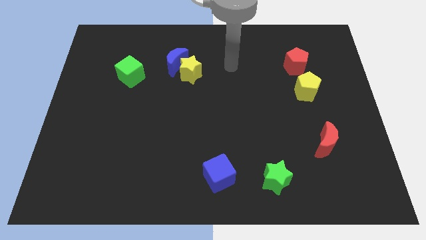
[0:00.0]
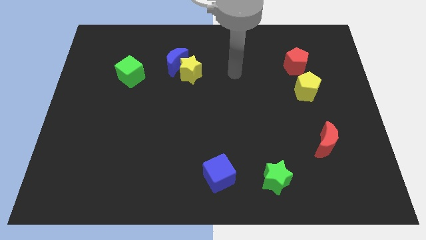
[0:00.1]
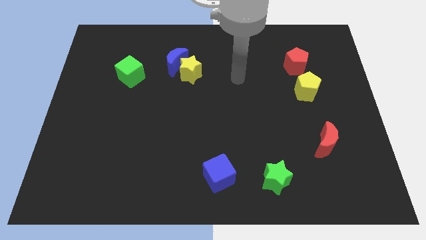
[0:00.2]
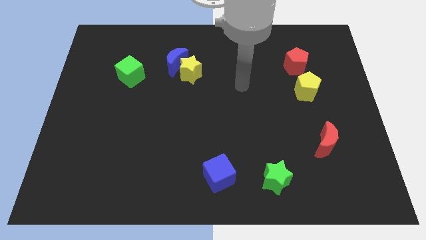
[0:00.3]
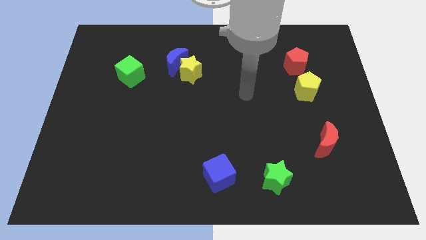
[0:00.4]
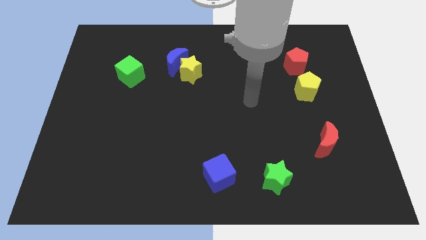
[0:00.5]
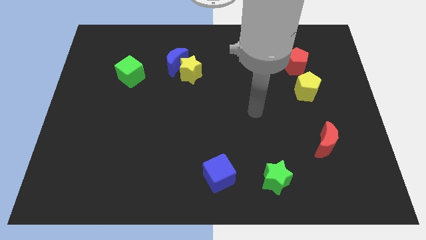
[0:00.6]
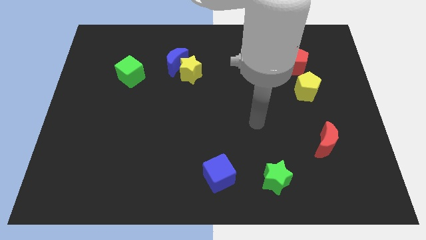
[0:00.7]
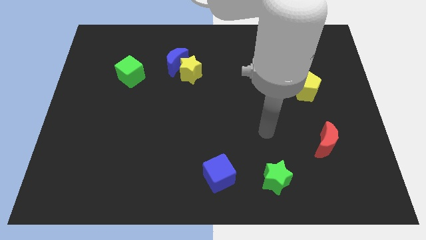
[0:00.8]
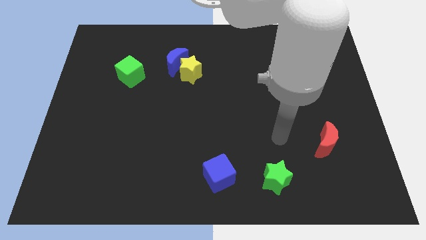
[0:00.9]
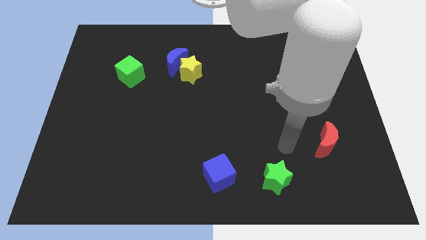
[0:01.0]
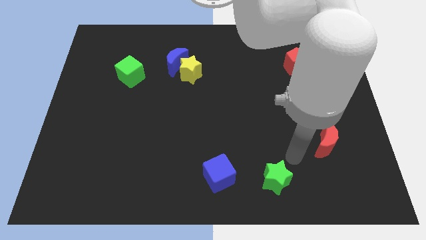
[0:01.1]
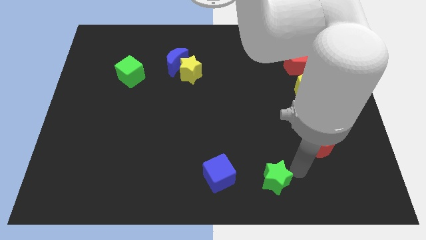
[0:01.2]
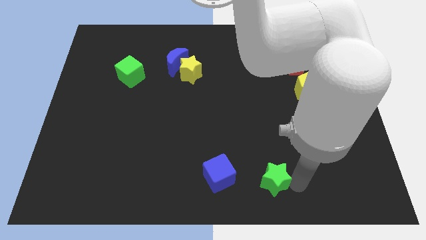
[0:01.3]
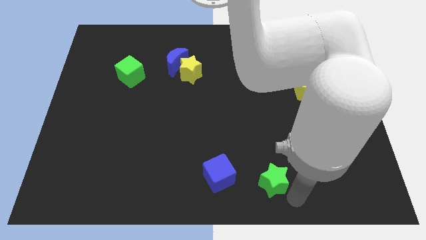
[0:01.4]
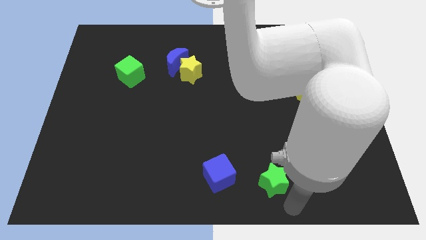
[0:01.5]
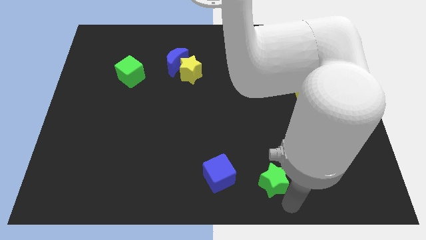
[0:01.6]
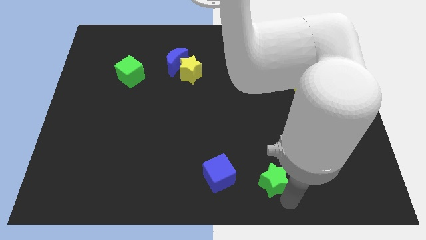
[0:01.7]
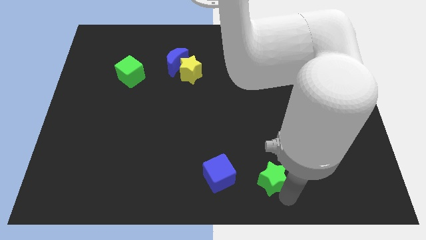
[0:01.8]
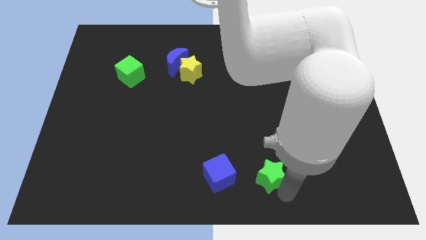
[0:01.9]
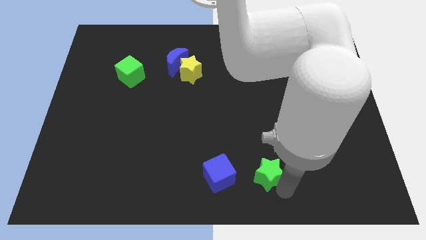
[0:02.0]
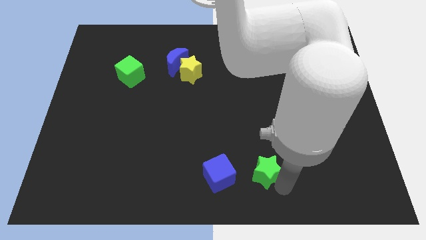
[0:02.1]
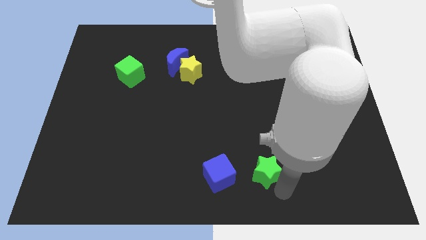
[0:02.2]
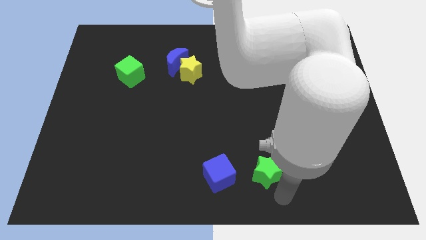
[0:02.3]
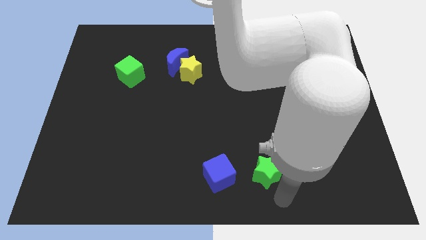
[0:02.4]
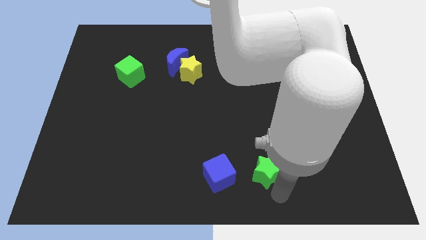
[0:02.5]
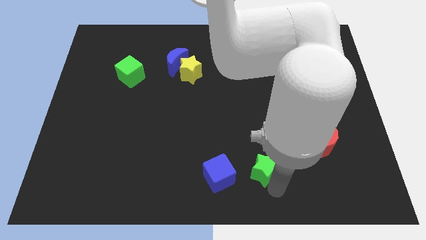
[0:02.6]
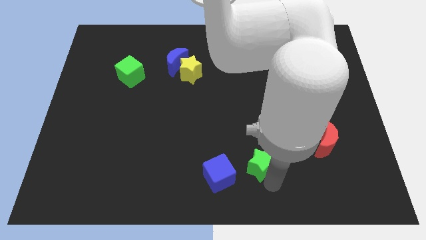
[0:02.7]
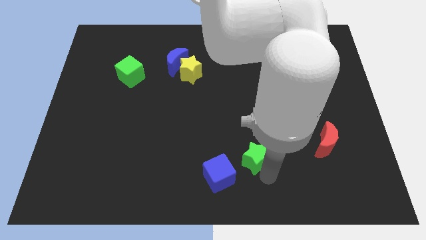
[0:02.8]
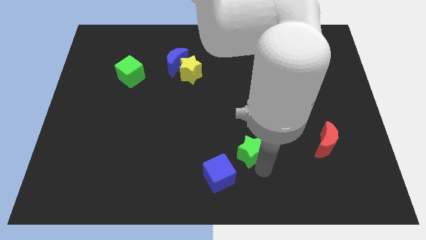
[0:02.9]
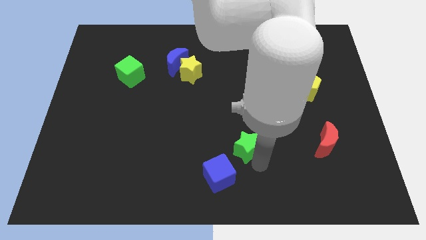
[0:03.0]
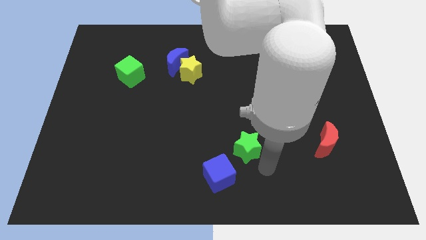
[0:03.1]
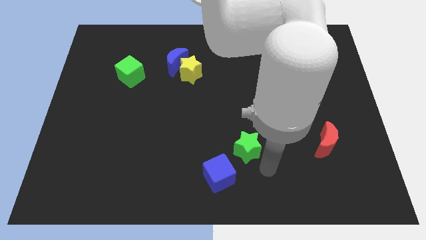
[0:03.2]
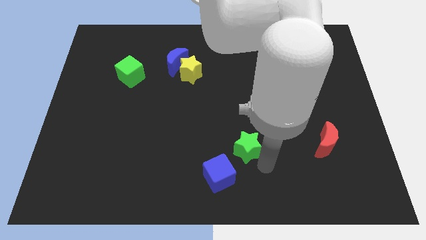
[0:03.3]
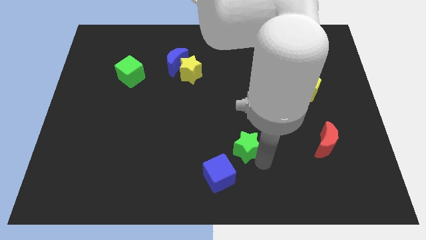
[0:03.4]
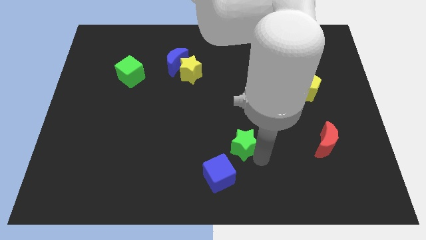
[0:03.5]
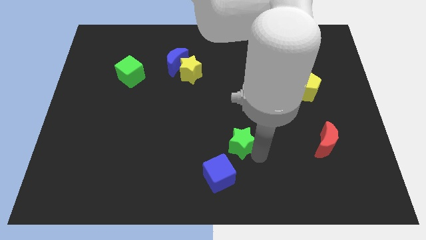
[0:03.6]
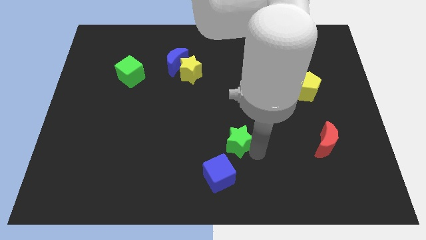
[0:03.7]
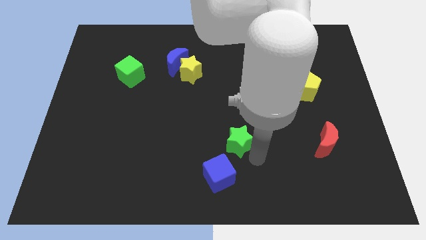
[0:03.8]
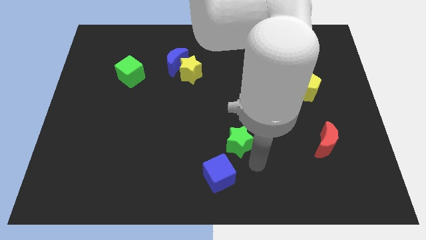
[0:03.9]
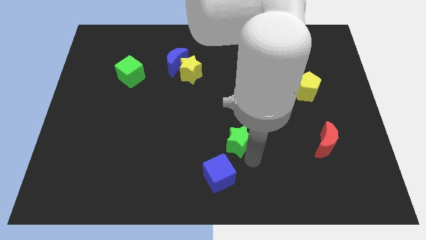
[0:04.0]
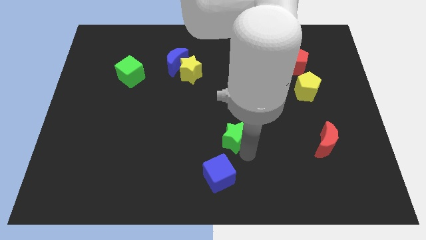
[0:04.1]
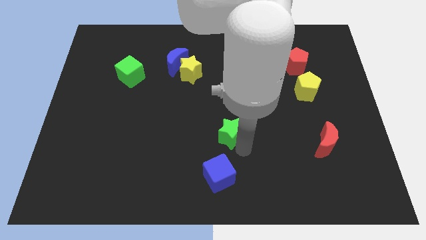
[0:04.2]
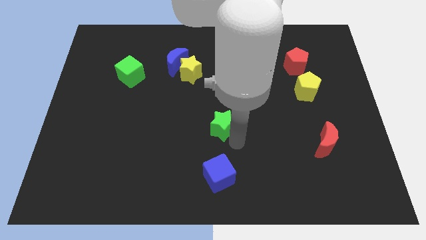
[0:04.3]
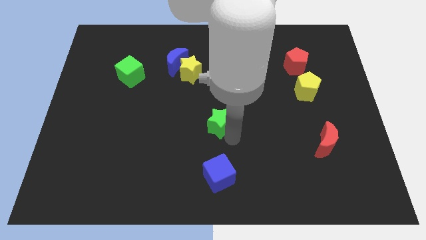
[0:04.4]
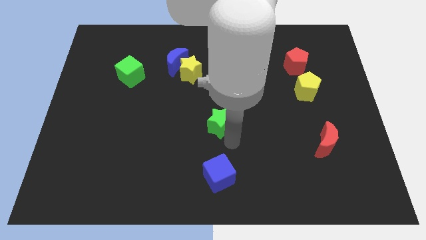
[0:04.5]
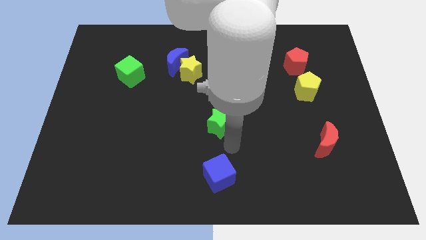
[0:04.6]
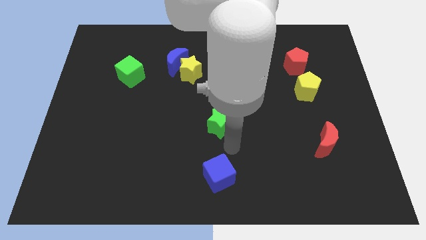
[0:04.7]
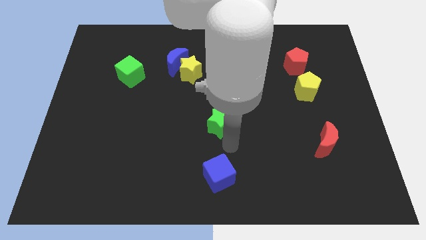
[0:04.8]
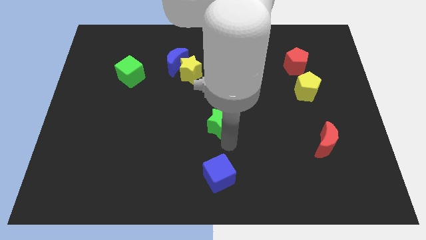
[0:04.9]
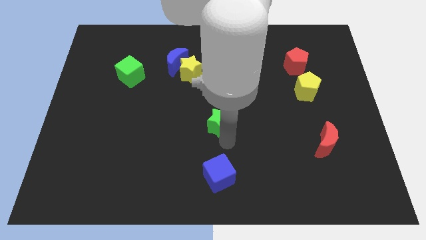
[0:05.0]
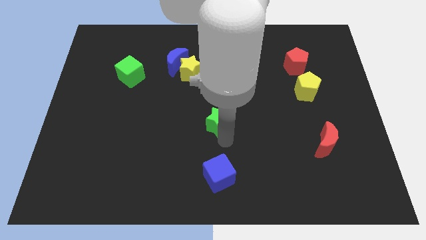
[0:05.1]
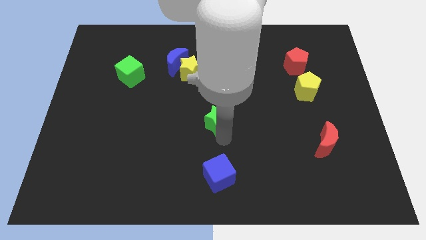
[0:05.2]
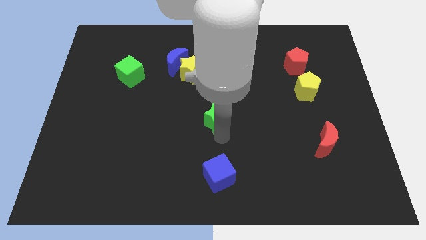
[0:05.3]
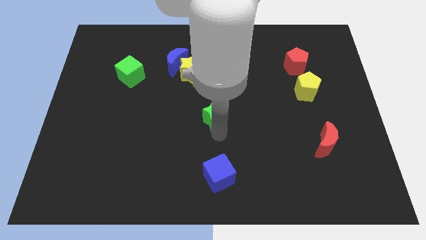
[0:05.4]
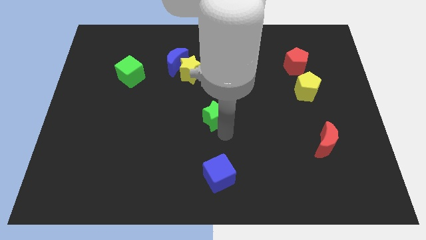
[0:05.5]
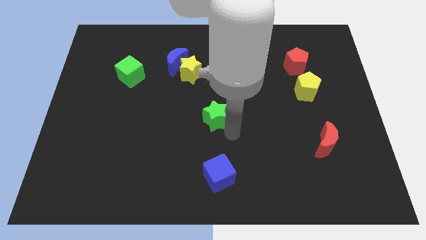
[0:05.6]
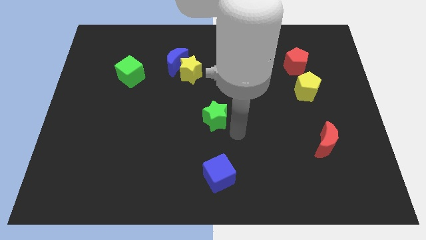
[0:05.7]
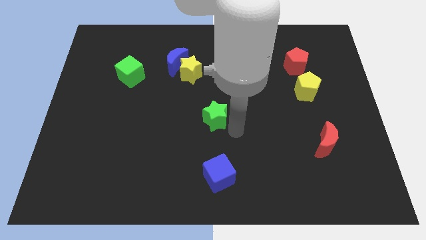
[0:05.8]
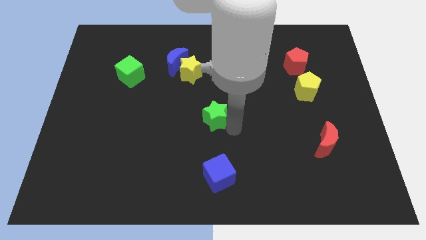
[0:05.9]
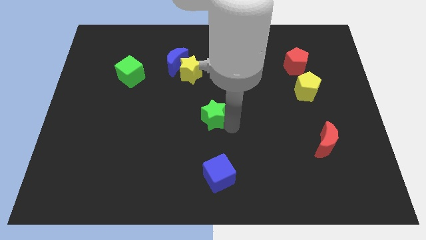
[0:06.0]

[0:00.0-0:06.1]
move the green star upwards and to the left diagonally

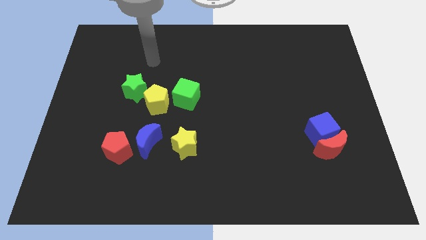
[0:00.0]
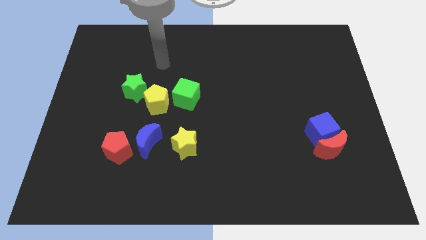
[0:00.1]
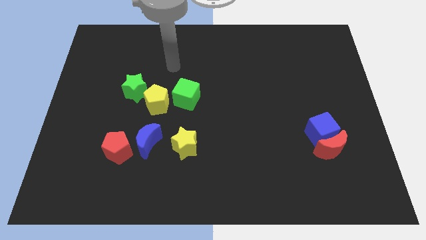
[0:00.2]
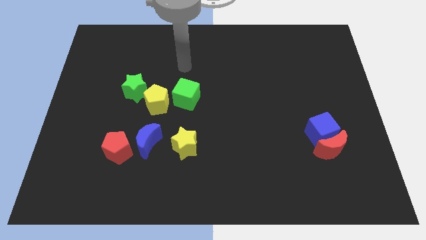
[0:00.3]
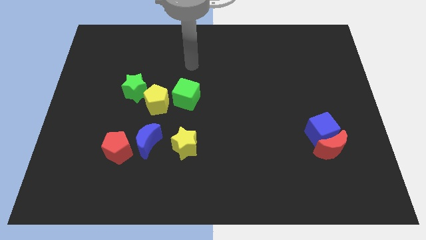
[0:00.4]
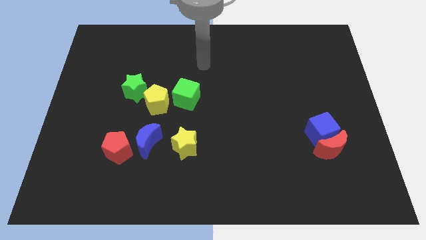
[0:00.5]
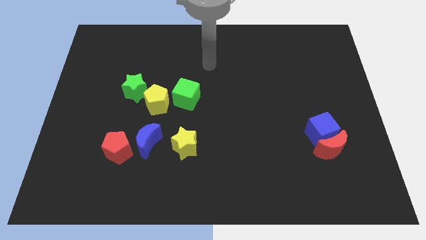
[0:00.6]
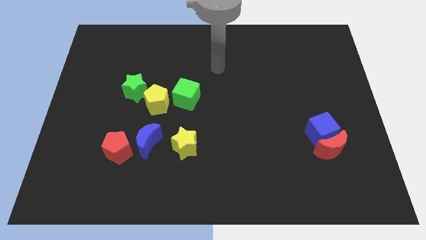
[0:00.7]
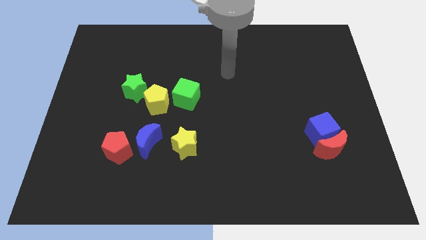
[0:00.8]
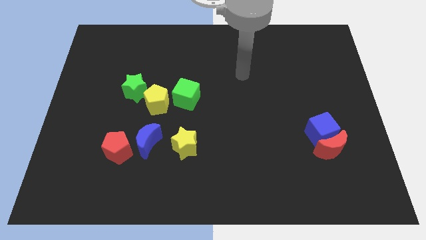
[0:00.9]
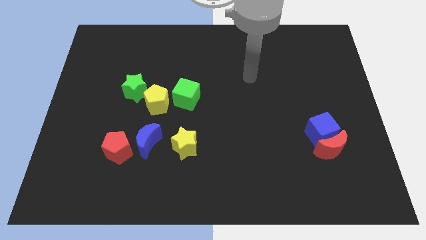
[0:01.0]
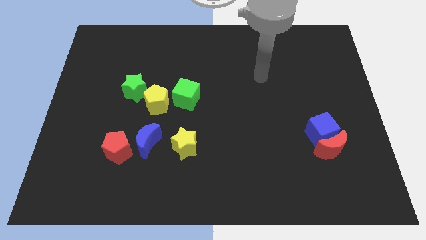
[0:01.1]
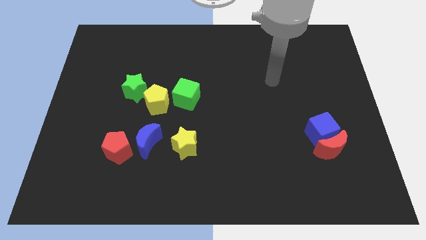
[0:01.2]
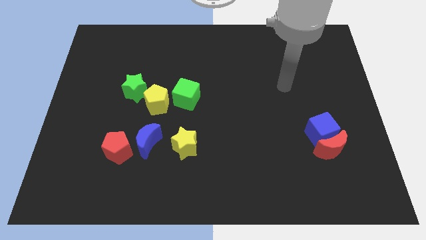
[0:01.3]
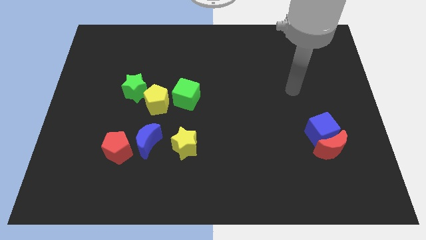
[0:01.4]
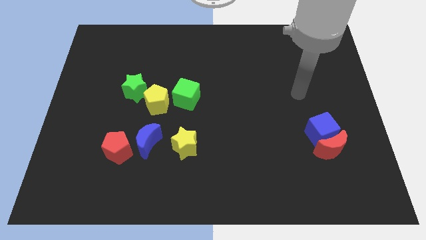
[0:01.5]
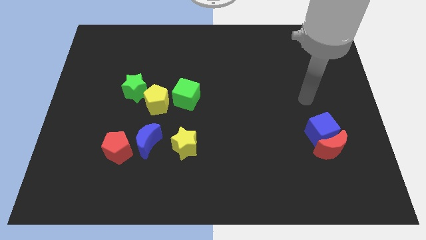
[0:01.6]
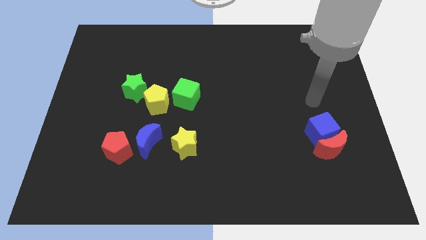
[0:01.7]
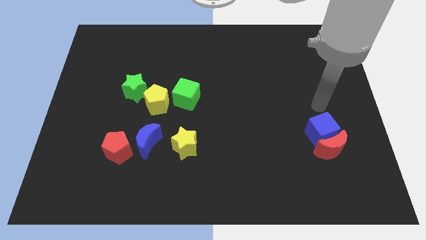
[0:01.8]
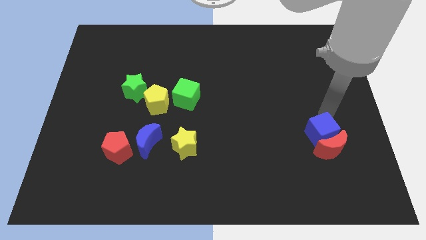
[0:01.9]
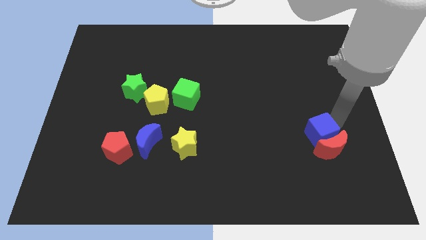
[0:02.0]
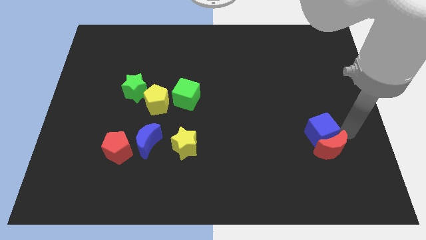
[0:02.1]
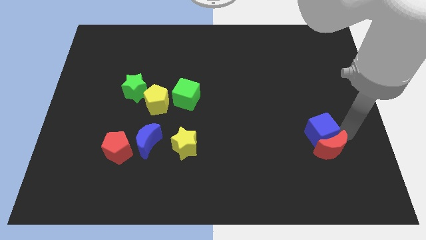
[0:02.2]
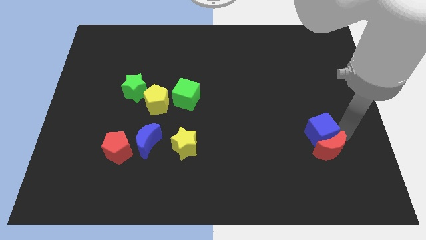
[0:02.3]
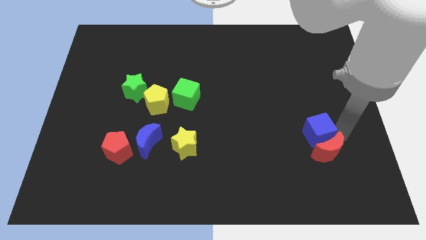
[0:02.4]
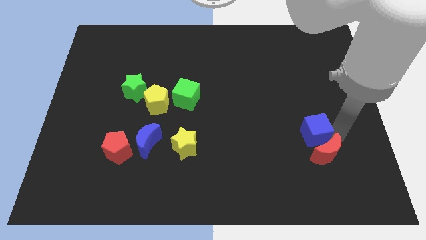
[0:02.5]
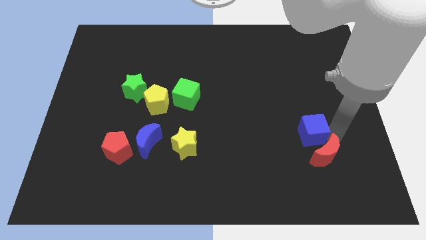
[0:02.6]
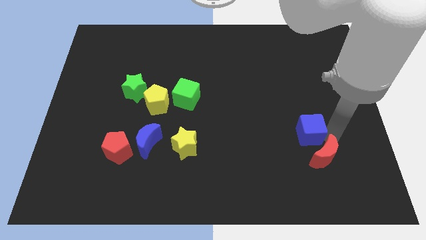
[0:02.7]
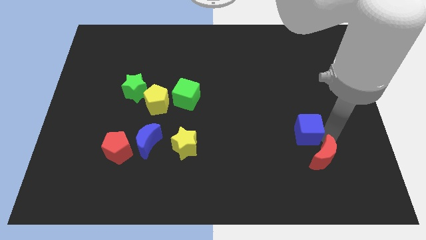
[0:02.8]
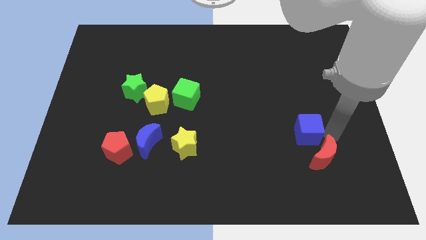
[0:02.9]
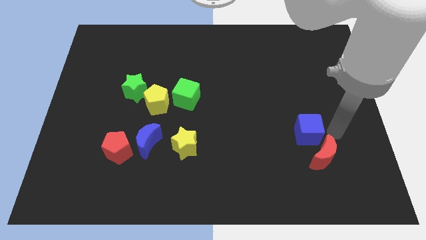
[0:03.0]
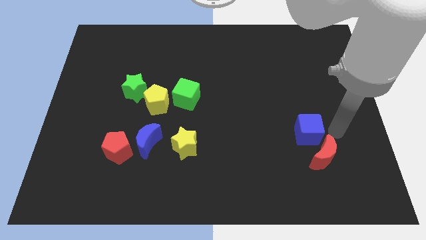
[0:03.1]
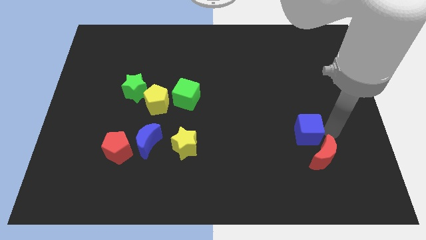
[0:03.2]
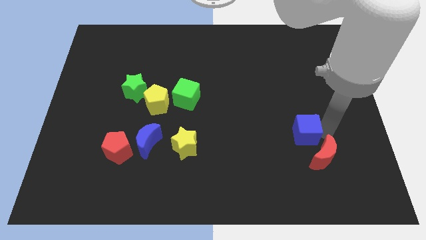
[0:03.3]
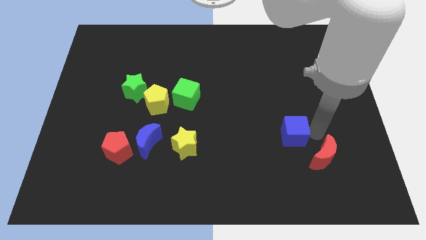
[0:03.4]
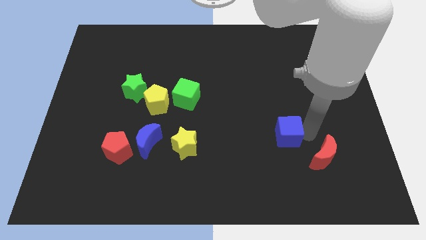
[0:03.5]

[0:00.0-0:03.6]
push the blue cube somewhat to the left
